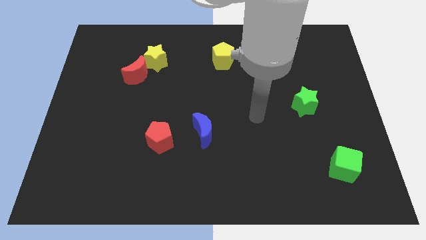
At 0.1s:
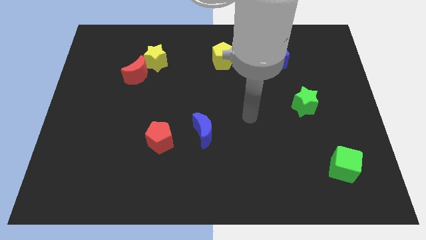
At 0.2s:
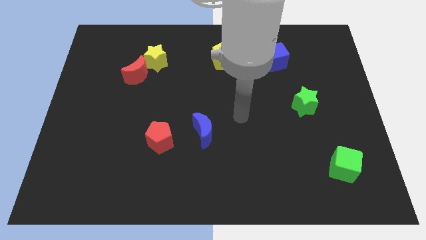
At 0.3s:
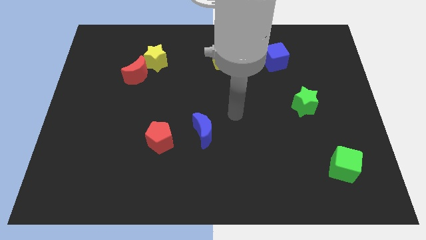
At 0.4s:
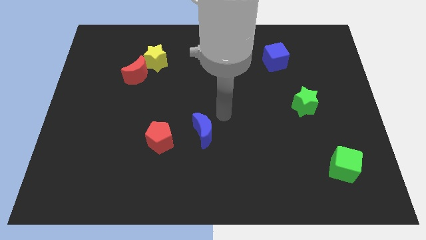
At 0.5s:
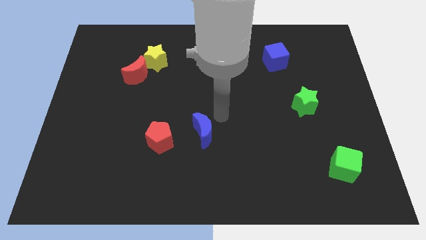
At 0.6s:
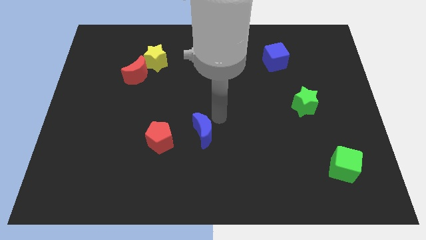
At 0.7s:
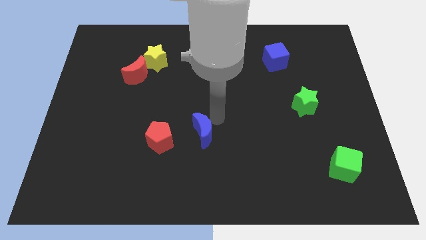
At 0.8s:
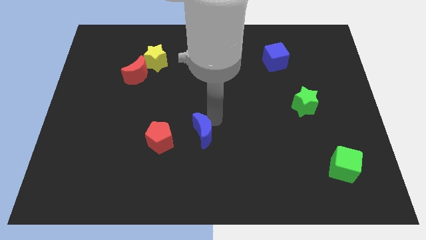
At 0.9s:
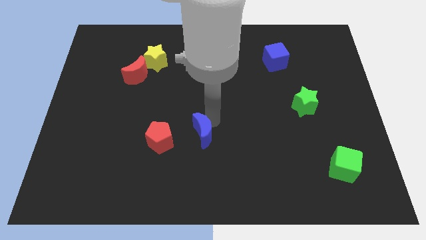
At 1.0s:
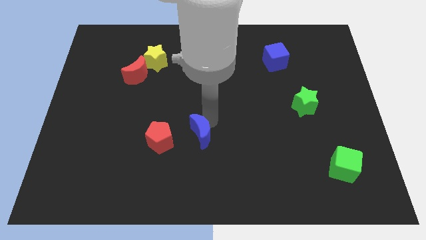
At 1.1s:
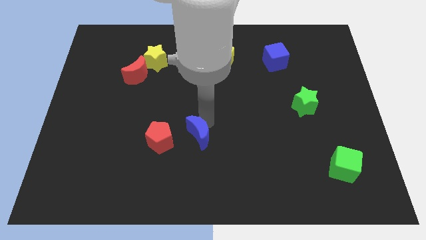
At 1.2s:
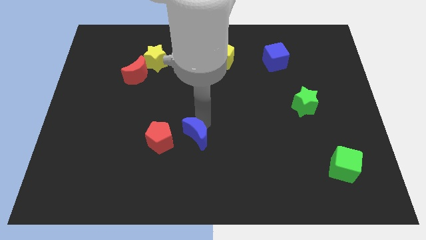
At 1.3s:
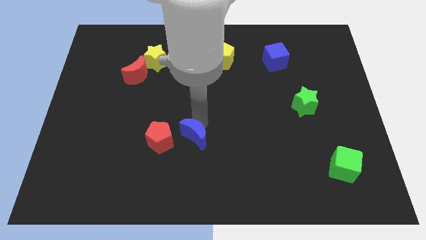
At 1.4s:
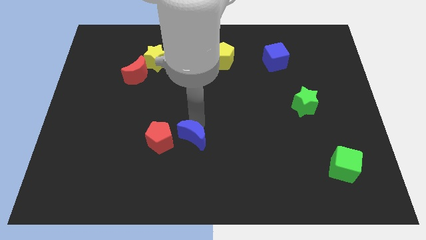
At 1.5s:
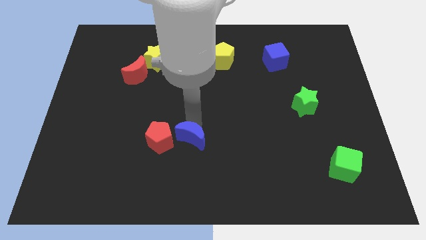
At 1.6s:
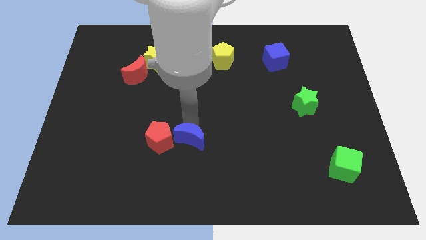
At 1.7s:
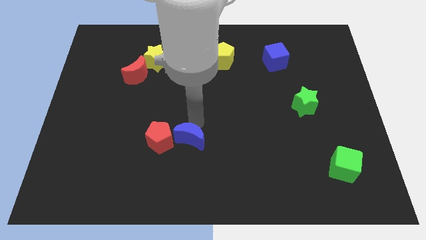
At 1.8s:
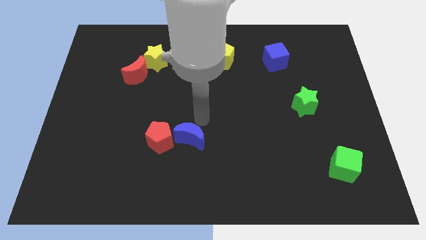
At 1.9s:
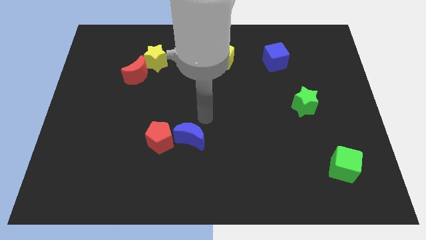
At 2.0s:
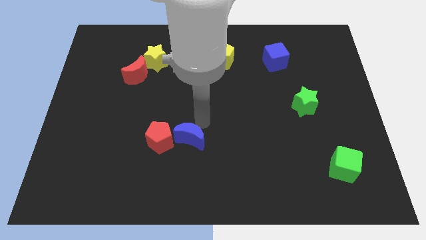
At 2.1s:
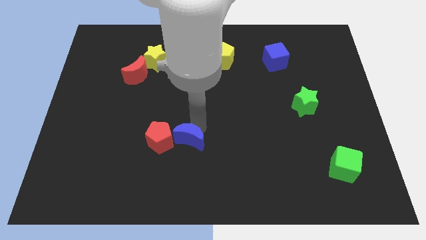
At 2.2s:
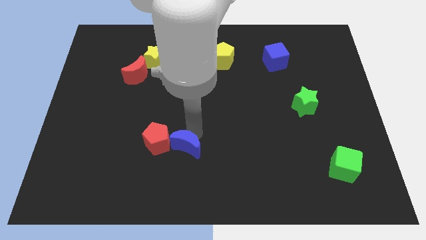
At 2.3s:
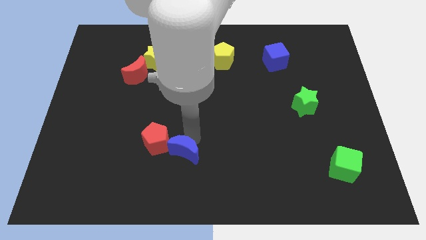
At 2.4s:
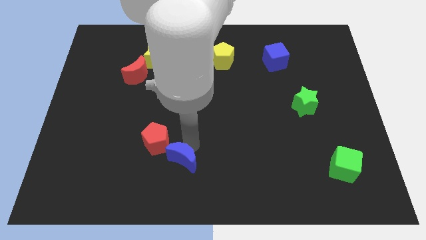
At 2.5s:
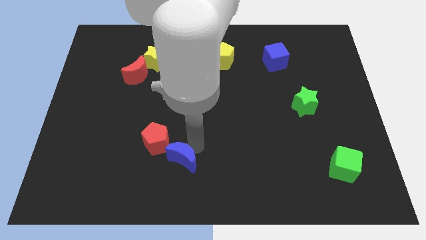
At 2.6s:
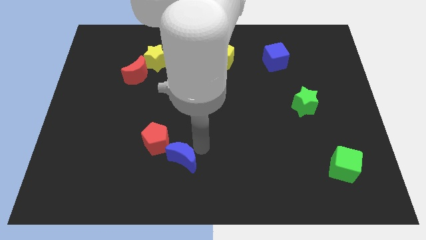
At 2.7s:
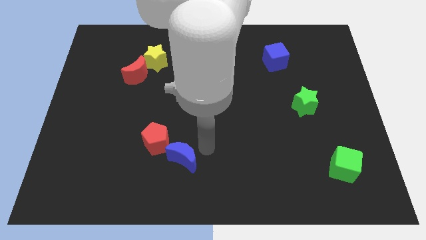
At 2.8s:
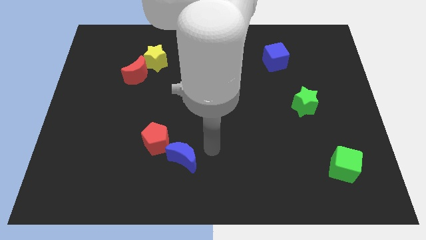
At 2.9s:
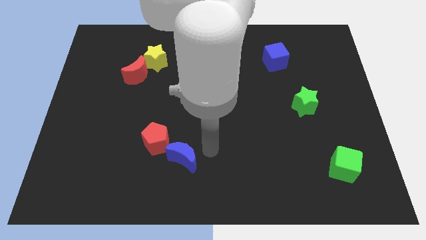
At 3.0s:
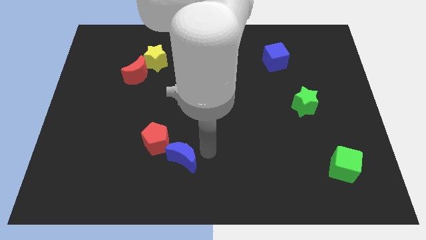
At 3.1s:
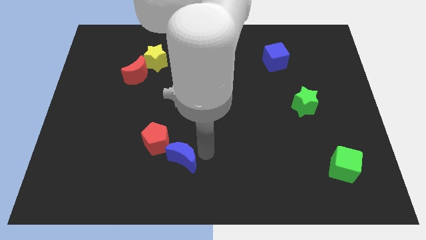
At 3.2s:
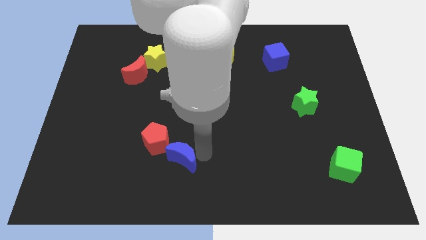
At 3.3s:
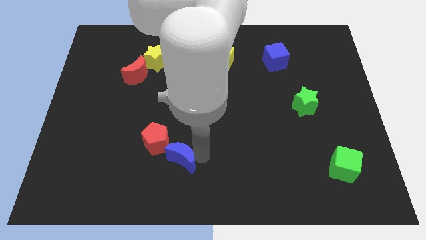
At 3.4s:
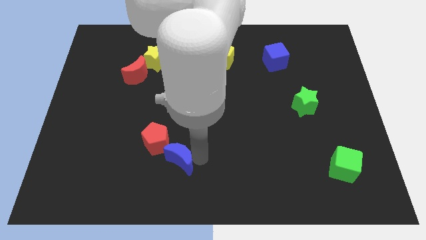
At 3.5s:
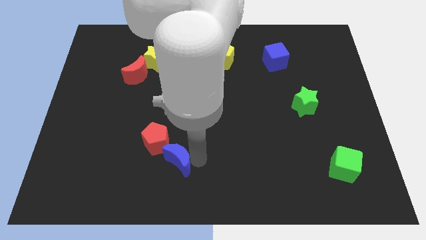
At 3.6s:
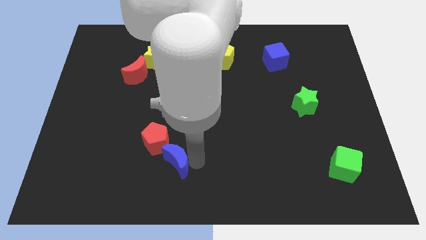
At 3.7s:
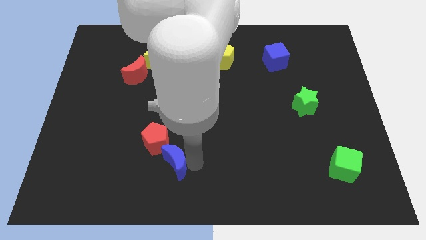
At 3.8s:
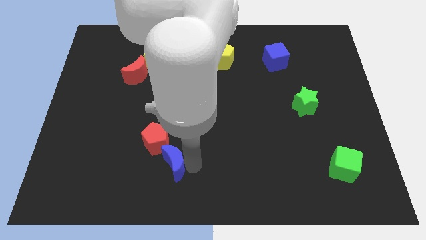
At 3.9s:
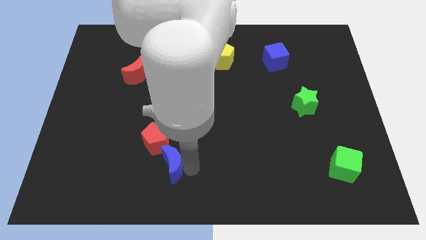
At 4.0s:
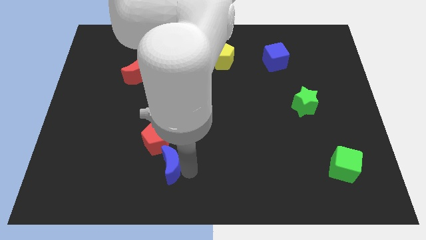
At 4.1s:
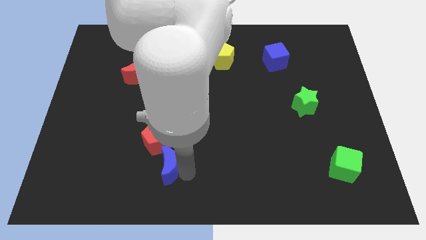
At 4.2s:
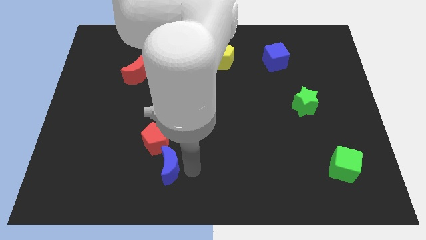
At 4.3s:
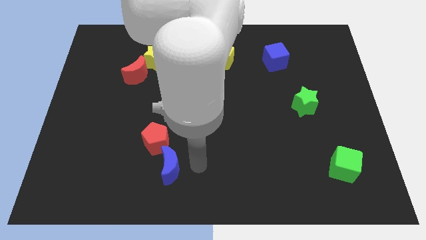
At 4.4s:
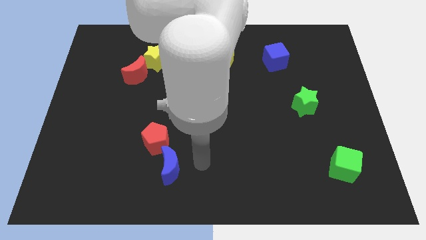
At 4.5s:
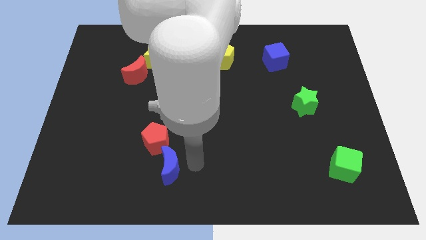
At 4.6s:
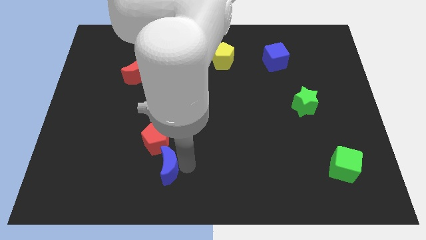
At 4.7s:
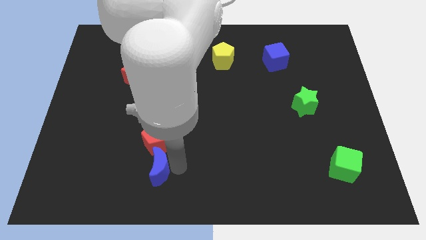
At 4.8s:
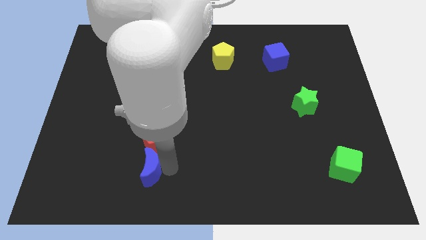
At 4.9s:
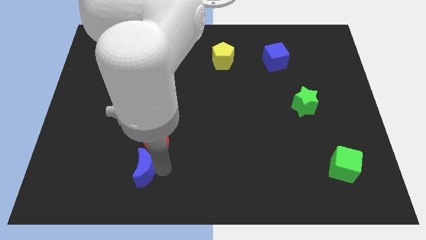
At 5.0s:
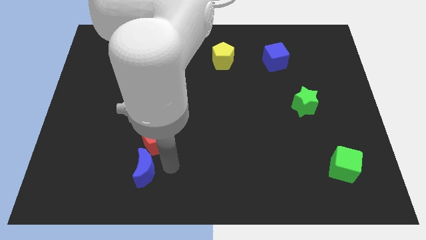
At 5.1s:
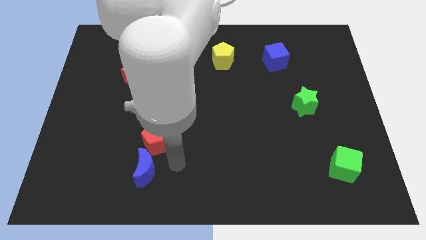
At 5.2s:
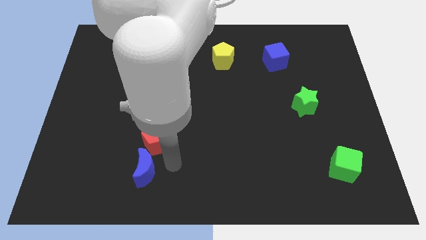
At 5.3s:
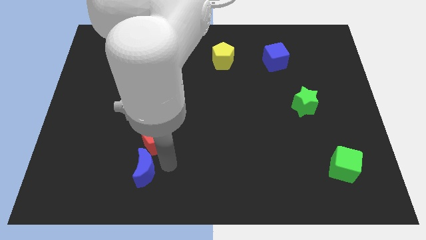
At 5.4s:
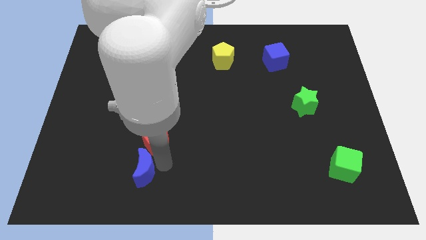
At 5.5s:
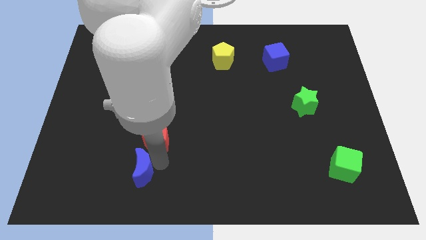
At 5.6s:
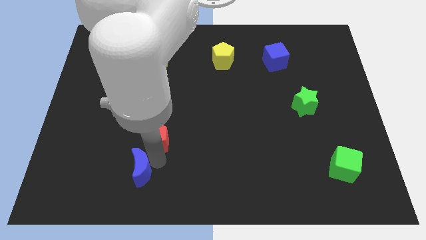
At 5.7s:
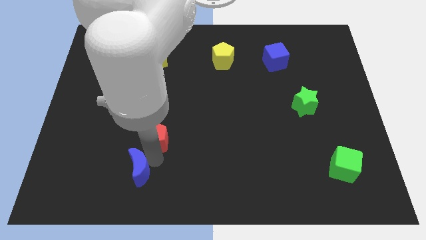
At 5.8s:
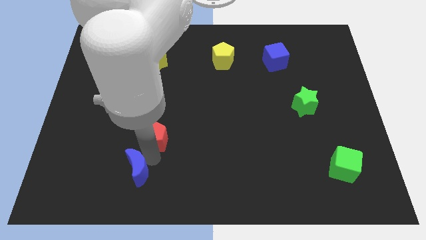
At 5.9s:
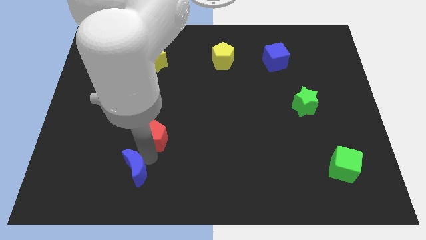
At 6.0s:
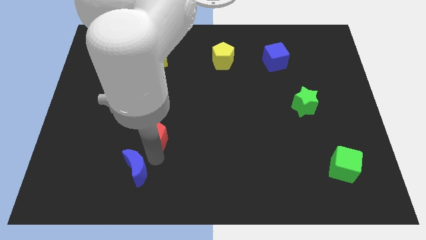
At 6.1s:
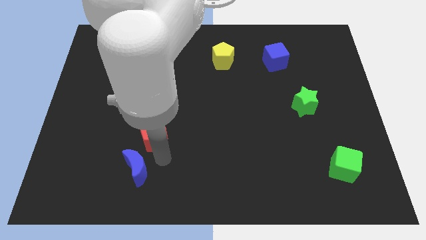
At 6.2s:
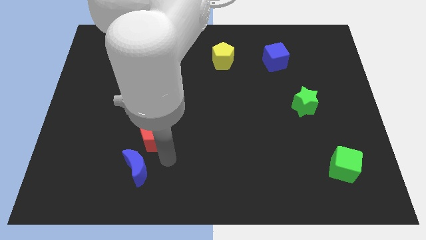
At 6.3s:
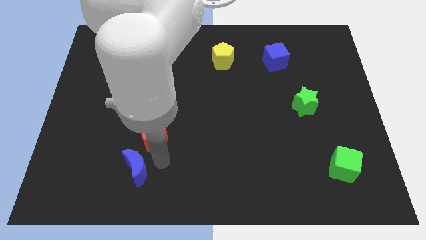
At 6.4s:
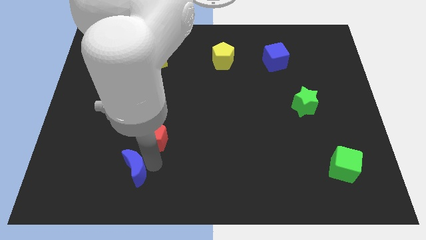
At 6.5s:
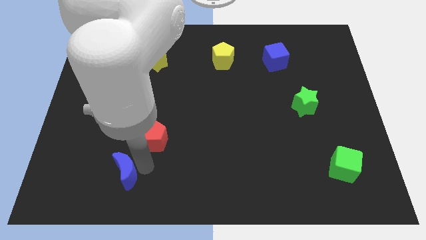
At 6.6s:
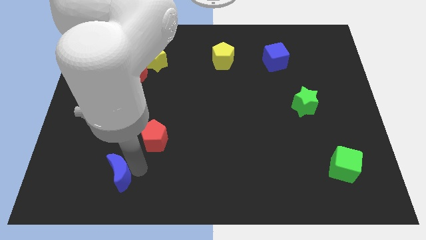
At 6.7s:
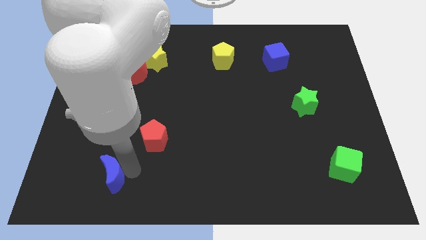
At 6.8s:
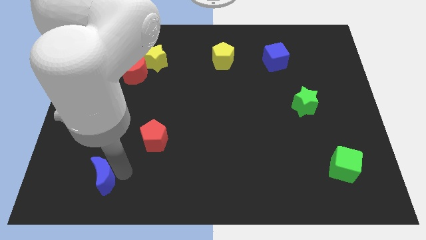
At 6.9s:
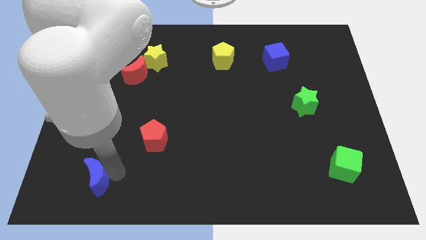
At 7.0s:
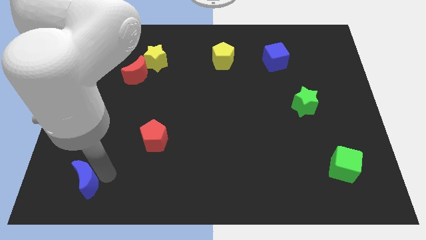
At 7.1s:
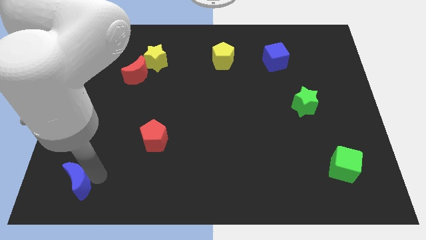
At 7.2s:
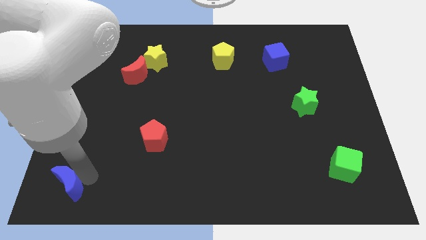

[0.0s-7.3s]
push the blue moon to the bottom left corner

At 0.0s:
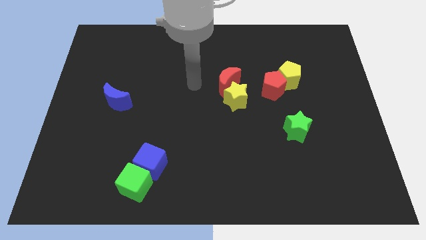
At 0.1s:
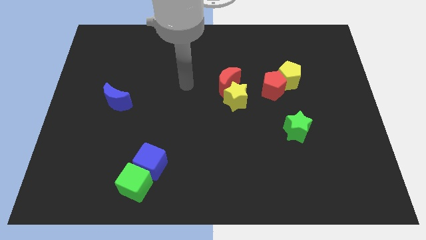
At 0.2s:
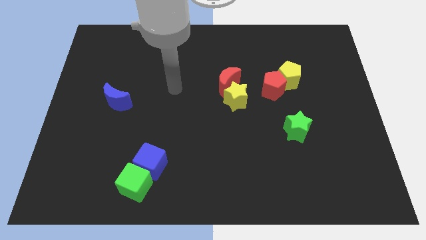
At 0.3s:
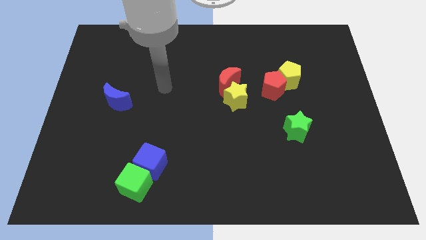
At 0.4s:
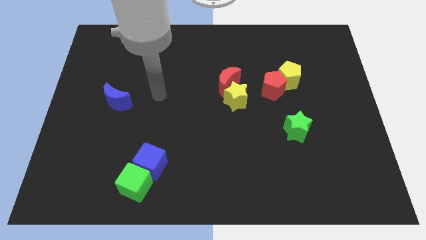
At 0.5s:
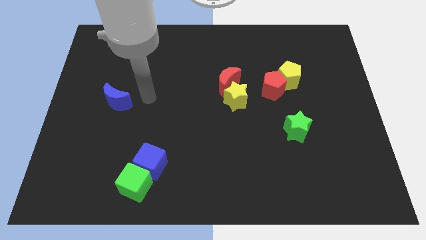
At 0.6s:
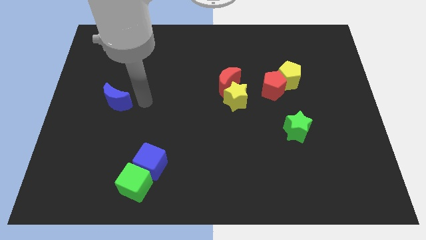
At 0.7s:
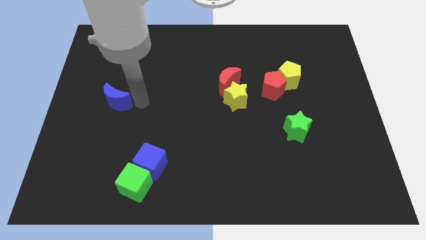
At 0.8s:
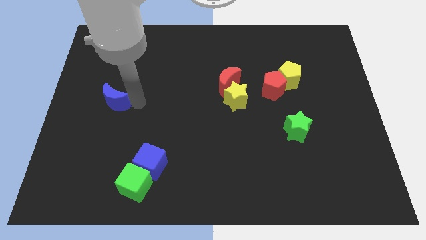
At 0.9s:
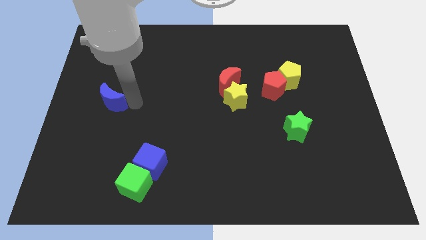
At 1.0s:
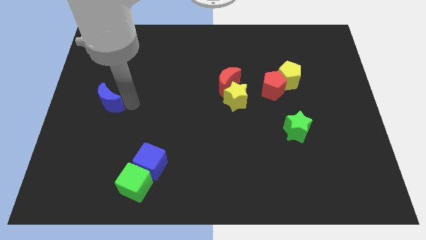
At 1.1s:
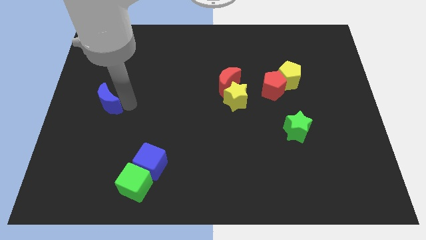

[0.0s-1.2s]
push the blue moon to the left side
